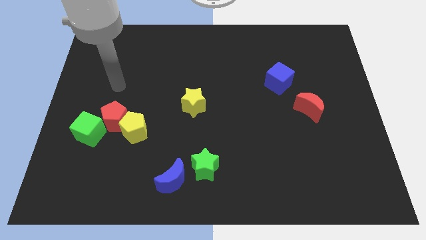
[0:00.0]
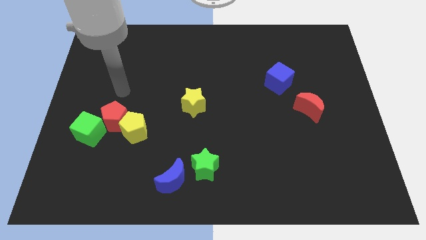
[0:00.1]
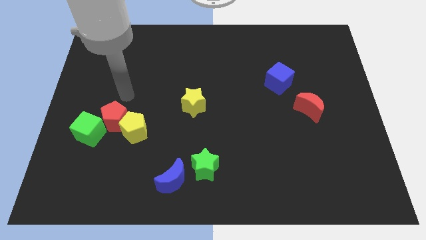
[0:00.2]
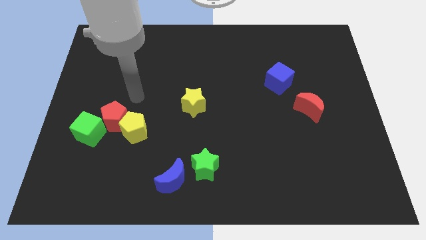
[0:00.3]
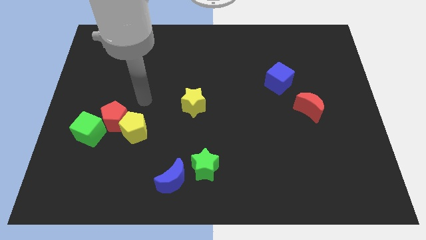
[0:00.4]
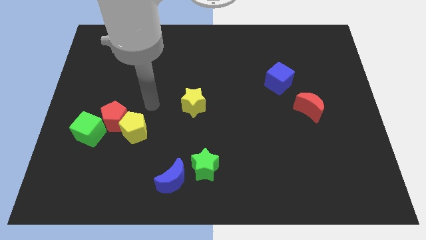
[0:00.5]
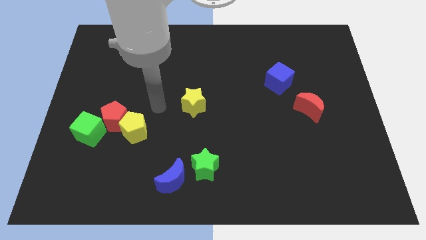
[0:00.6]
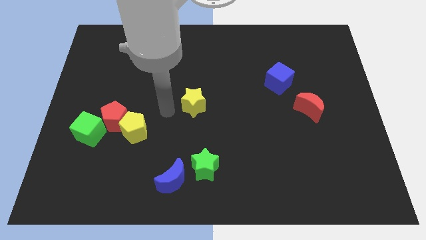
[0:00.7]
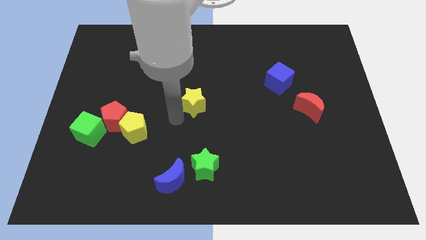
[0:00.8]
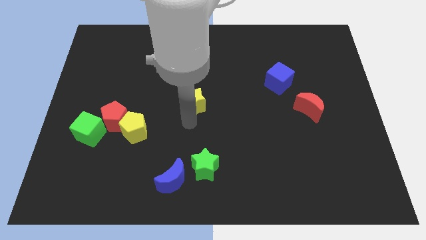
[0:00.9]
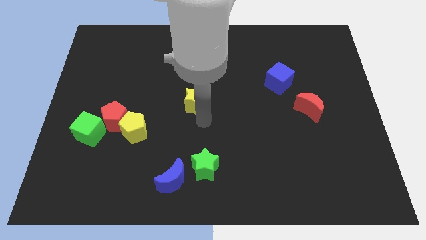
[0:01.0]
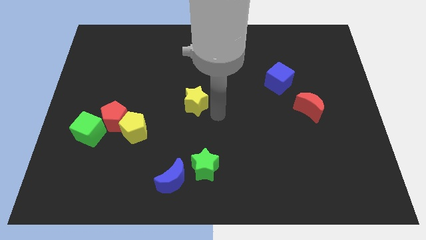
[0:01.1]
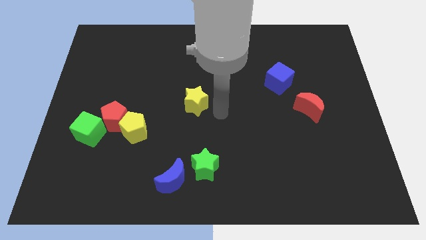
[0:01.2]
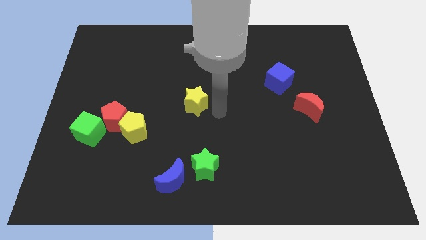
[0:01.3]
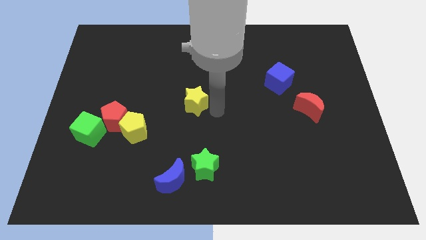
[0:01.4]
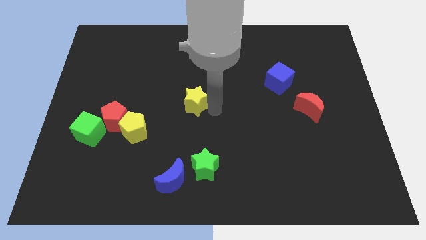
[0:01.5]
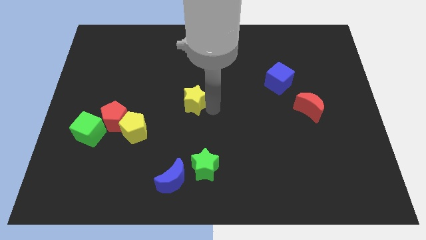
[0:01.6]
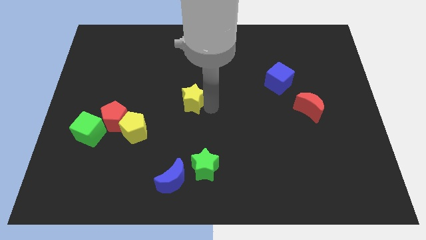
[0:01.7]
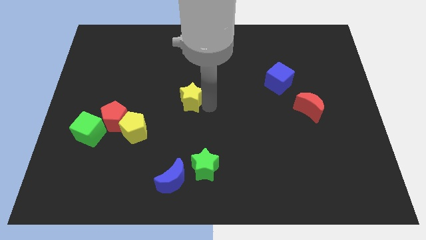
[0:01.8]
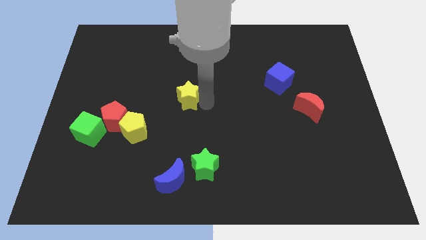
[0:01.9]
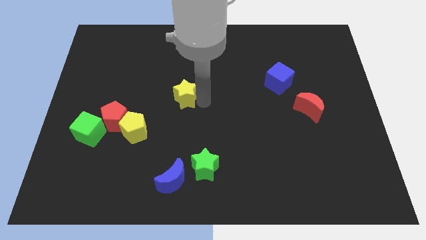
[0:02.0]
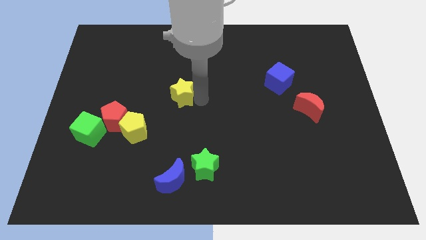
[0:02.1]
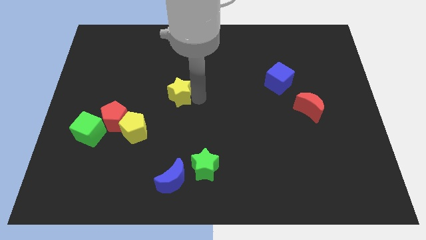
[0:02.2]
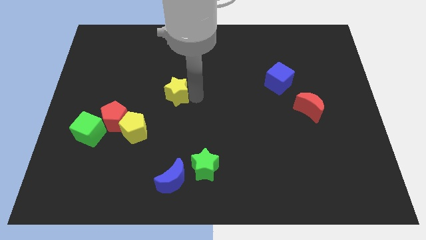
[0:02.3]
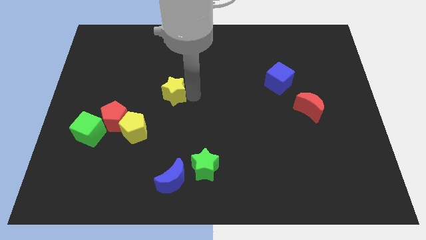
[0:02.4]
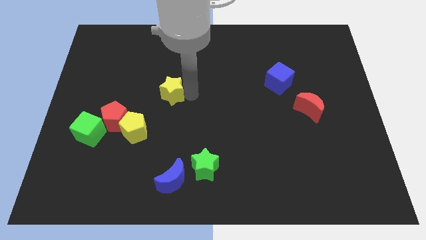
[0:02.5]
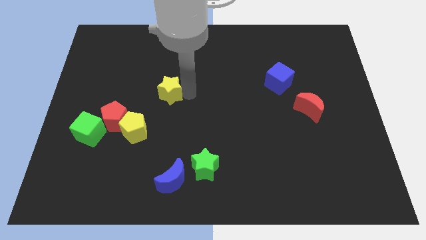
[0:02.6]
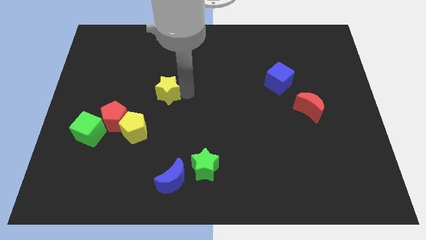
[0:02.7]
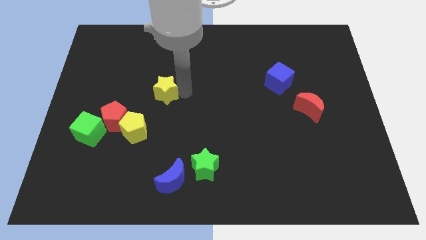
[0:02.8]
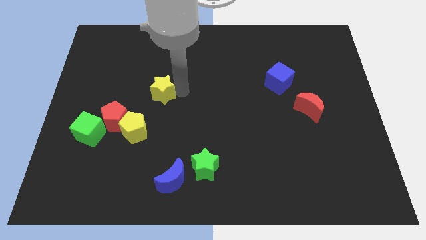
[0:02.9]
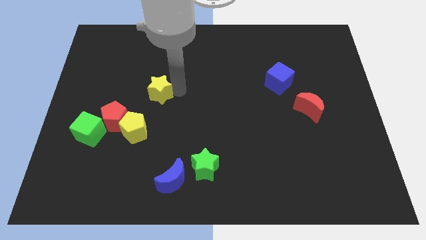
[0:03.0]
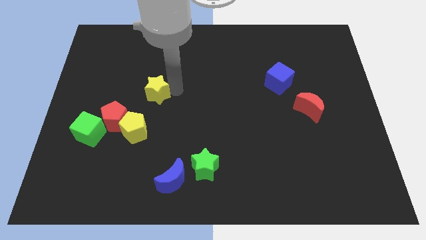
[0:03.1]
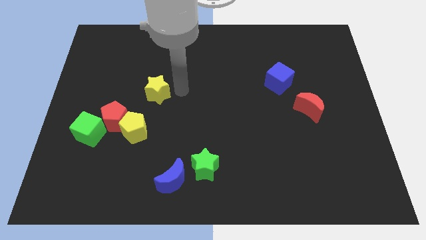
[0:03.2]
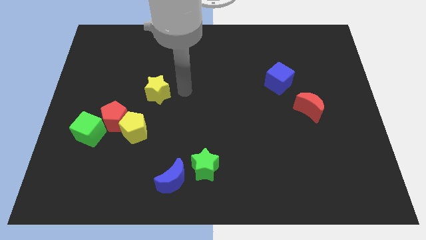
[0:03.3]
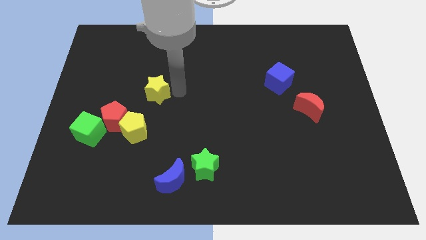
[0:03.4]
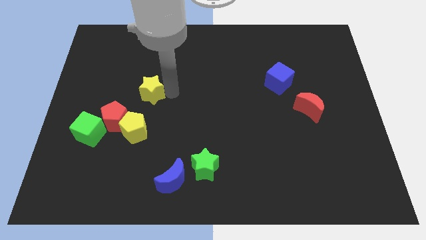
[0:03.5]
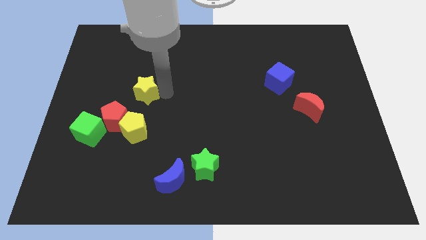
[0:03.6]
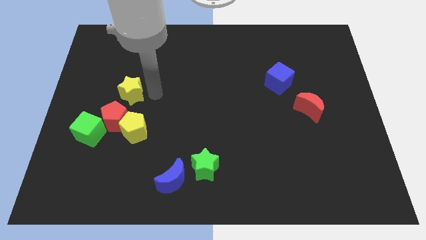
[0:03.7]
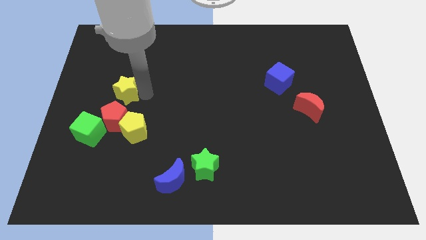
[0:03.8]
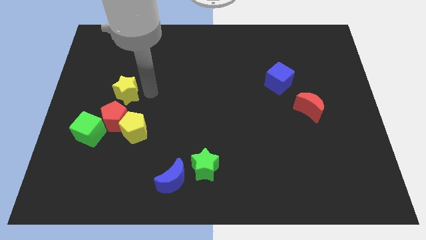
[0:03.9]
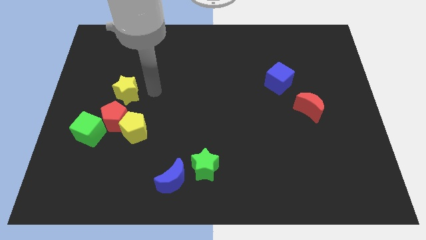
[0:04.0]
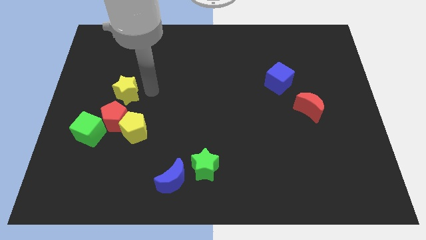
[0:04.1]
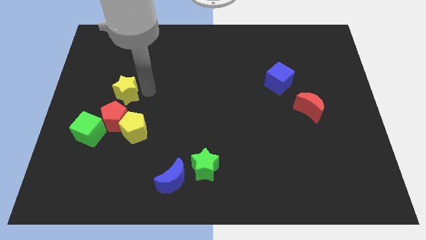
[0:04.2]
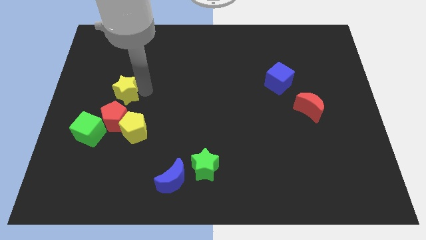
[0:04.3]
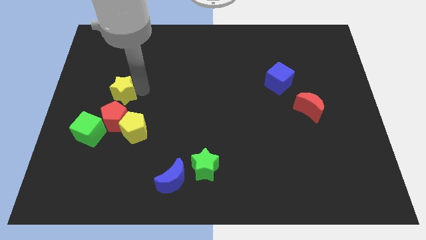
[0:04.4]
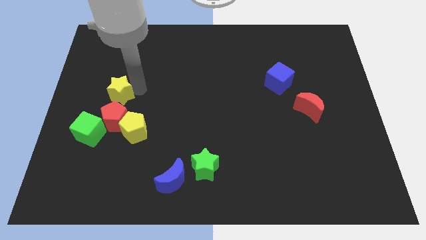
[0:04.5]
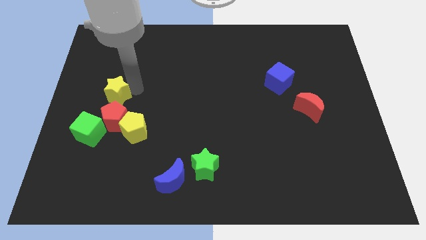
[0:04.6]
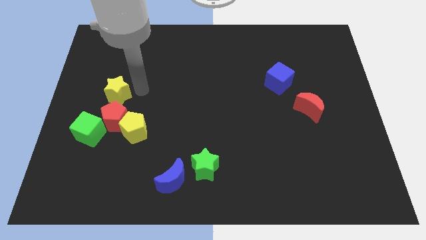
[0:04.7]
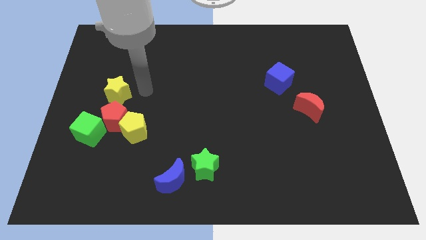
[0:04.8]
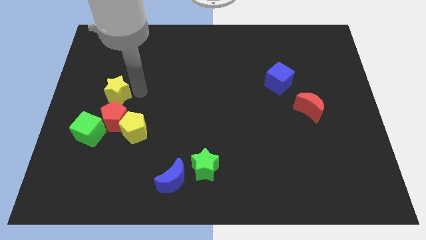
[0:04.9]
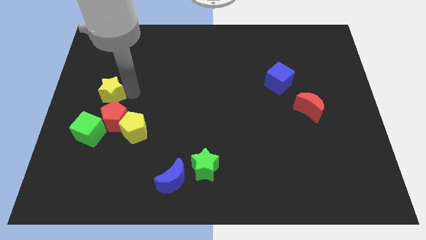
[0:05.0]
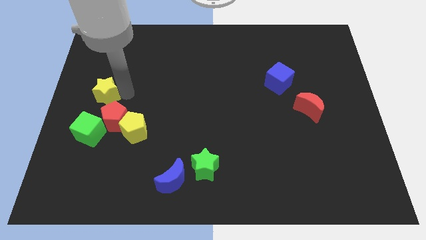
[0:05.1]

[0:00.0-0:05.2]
move the yellow star to the left side of the board

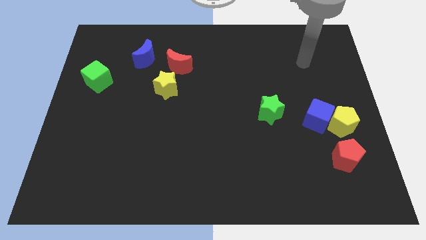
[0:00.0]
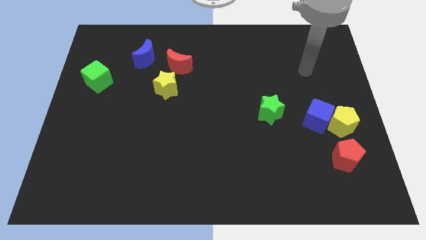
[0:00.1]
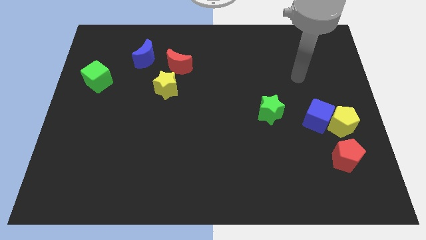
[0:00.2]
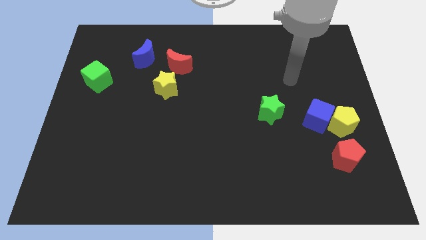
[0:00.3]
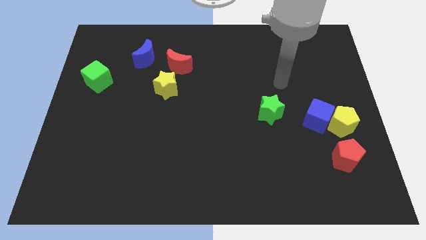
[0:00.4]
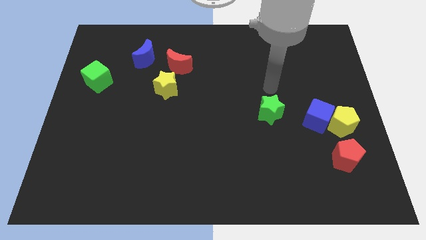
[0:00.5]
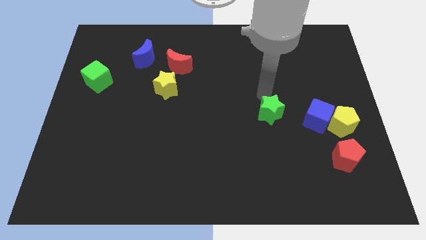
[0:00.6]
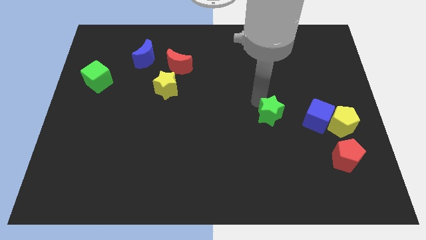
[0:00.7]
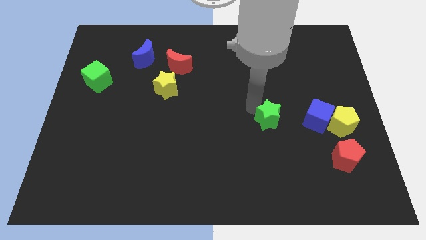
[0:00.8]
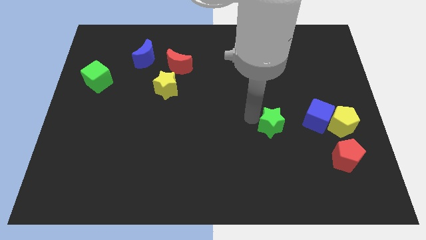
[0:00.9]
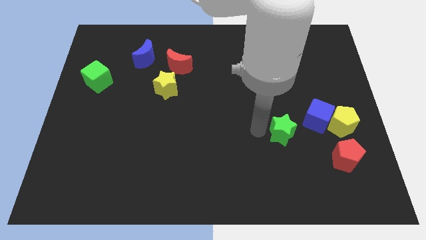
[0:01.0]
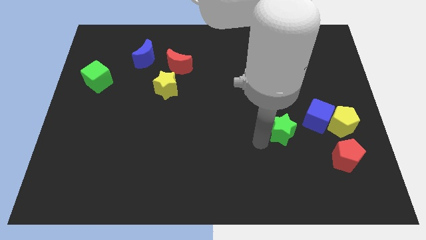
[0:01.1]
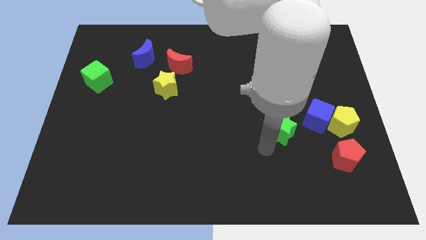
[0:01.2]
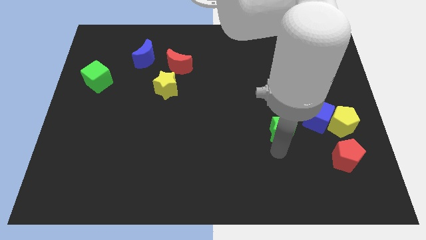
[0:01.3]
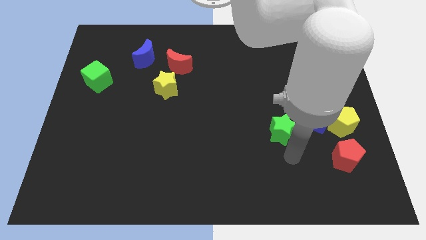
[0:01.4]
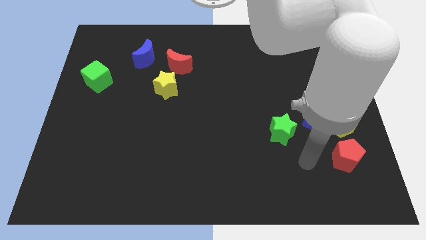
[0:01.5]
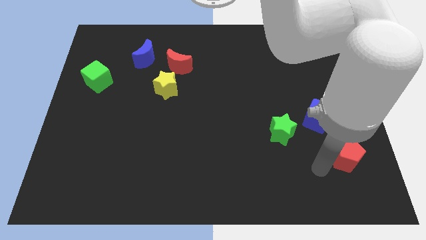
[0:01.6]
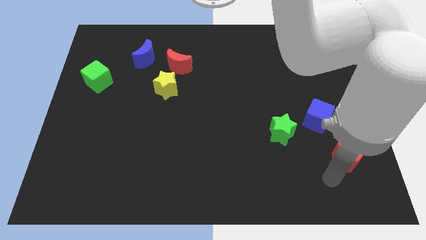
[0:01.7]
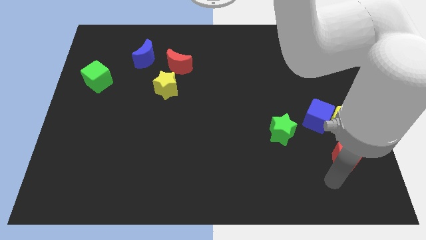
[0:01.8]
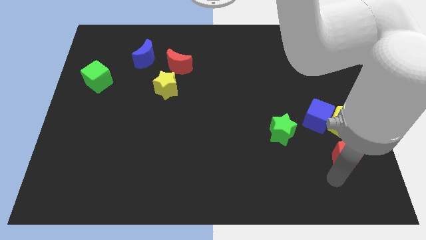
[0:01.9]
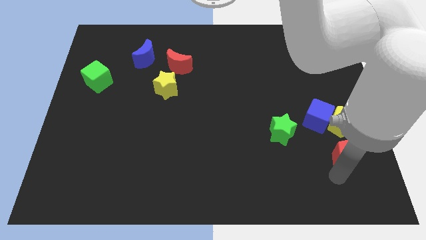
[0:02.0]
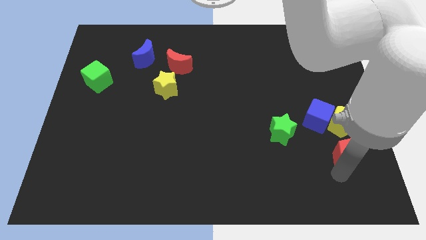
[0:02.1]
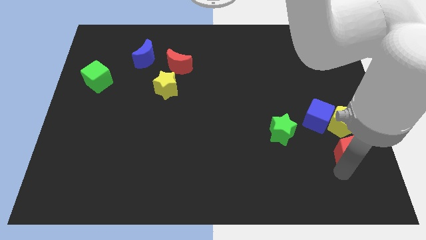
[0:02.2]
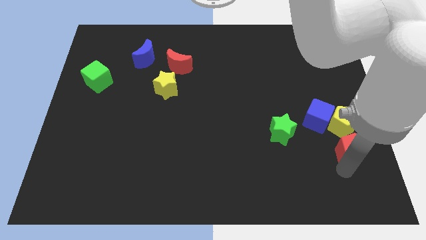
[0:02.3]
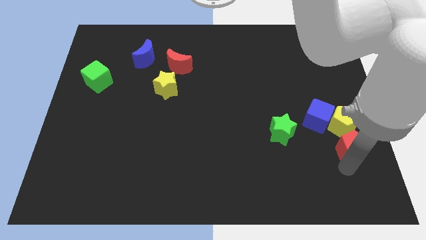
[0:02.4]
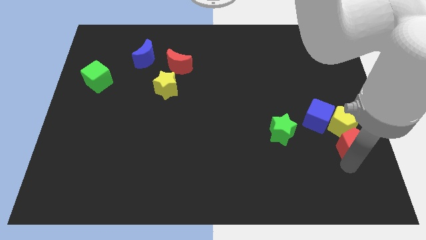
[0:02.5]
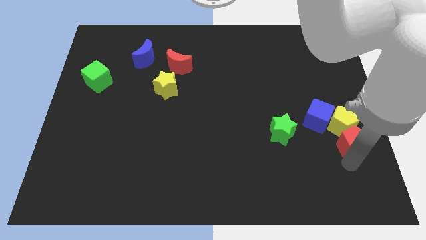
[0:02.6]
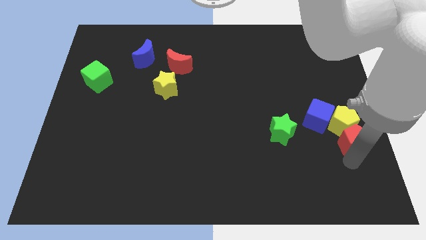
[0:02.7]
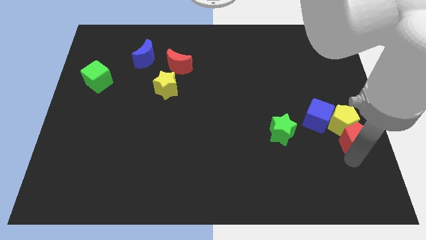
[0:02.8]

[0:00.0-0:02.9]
move the red pentagon to the right side
